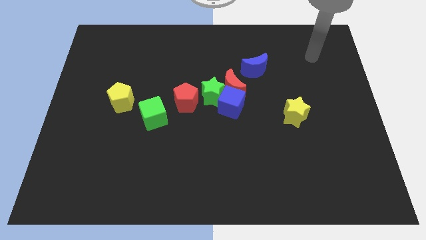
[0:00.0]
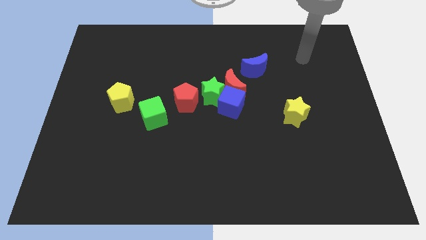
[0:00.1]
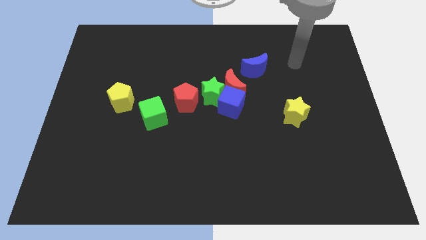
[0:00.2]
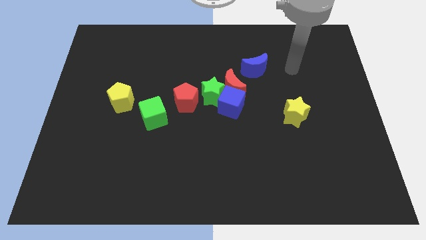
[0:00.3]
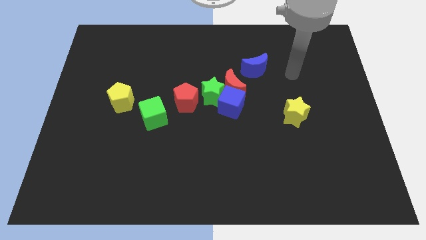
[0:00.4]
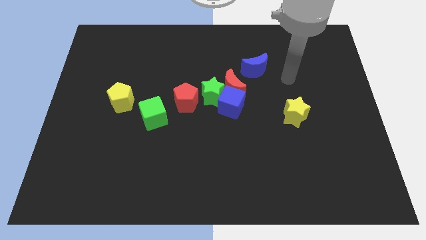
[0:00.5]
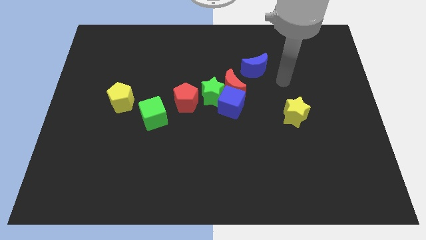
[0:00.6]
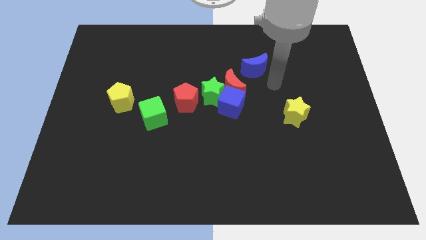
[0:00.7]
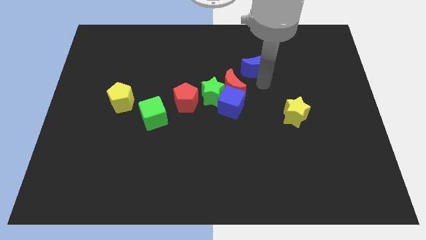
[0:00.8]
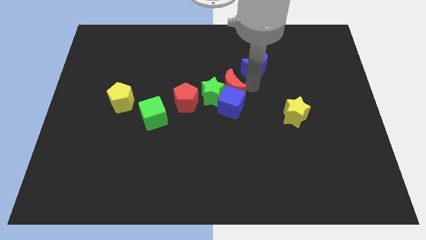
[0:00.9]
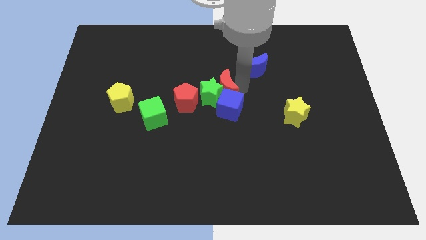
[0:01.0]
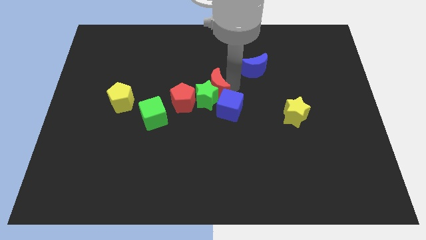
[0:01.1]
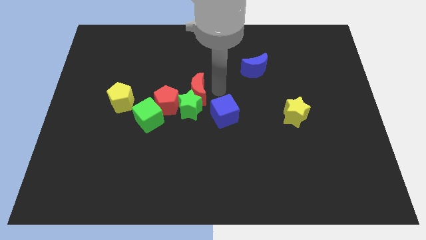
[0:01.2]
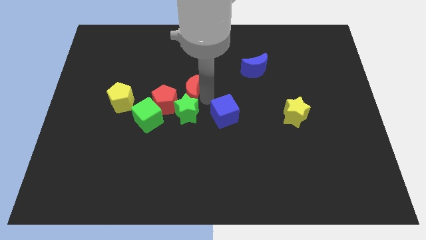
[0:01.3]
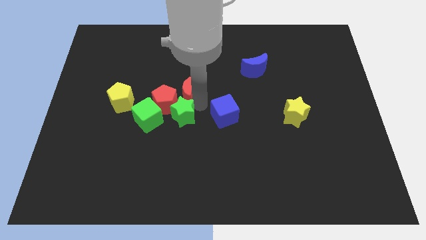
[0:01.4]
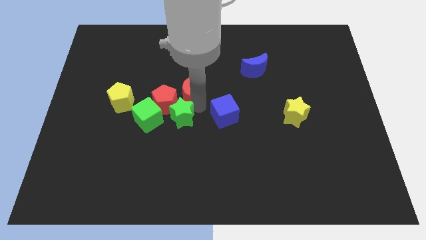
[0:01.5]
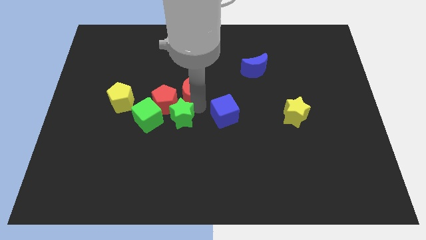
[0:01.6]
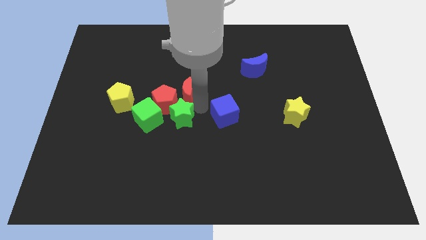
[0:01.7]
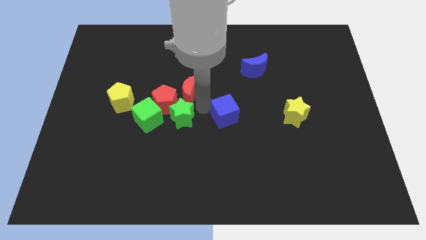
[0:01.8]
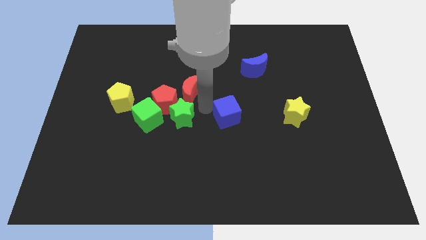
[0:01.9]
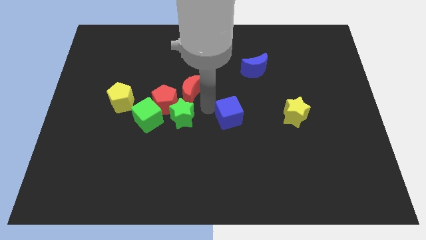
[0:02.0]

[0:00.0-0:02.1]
move the blue cube away from the red moon and green star

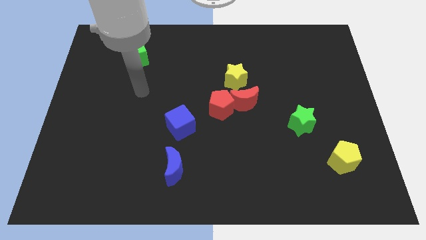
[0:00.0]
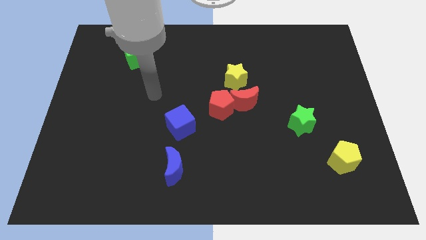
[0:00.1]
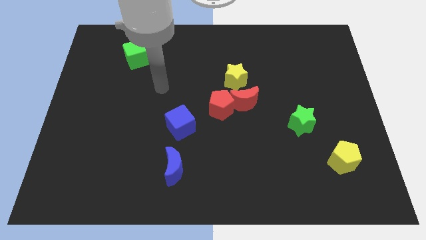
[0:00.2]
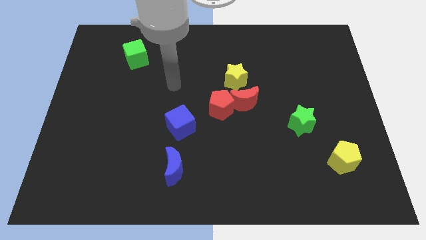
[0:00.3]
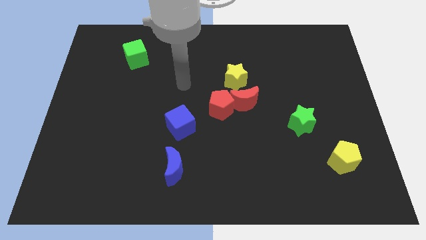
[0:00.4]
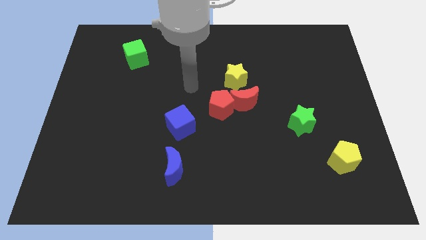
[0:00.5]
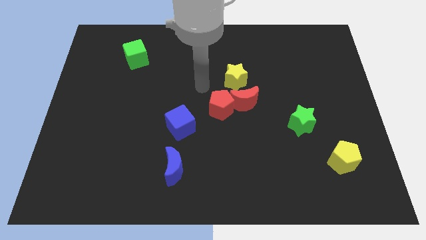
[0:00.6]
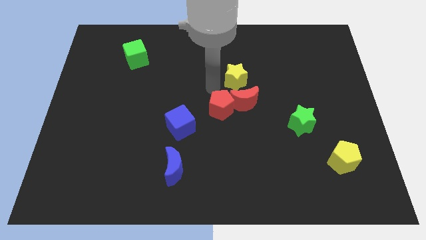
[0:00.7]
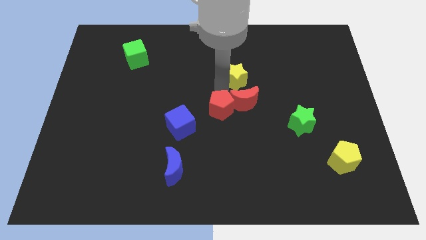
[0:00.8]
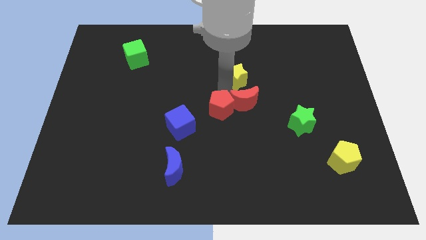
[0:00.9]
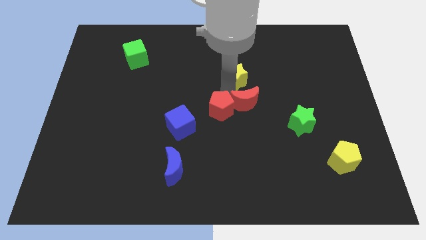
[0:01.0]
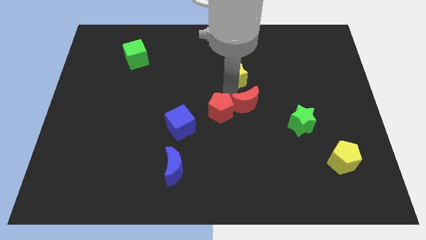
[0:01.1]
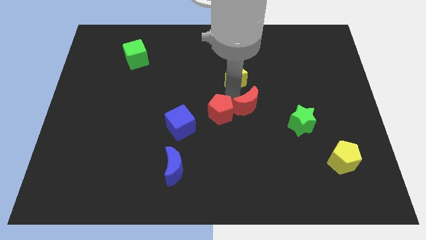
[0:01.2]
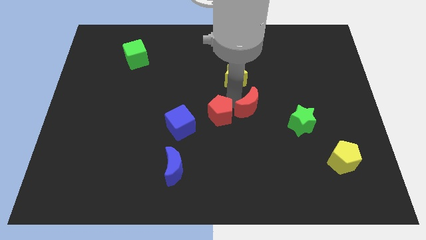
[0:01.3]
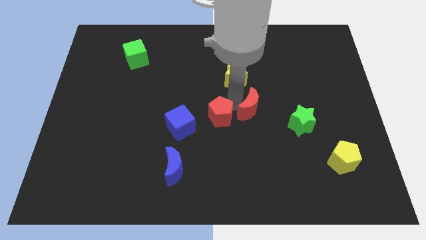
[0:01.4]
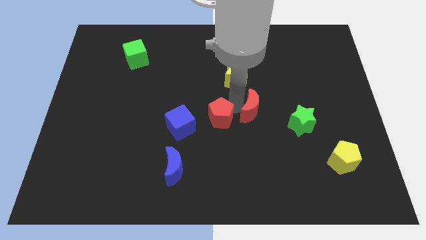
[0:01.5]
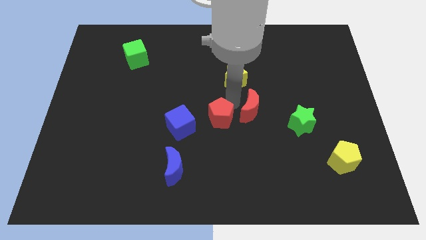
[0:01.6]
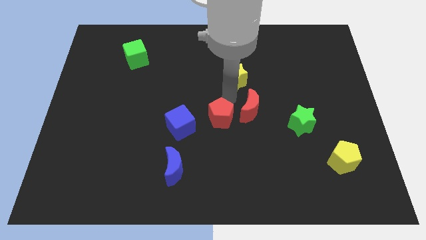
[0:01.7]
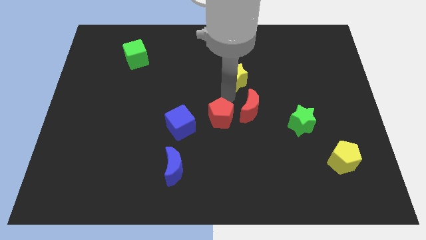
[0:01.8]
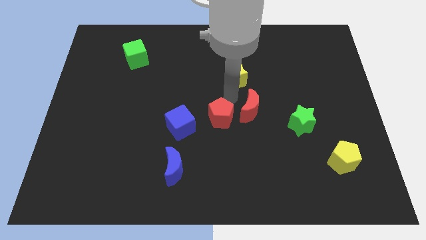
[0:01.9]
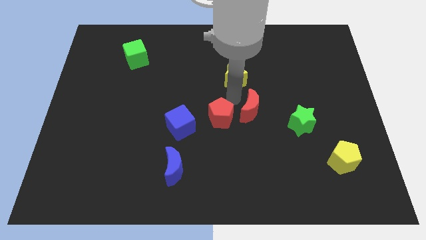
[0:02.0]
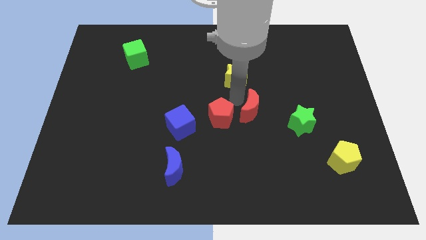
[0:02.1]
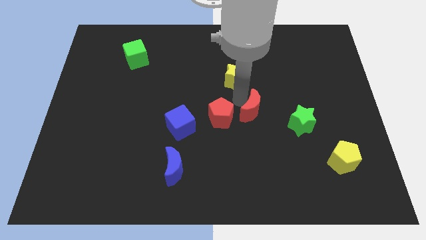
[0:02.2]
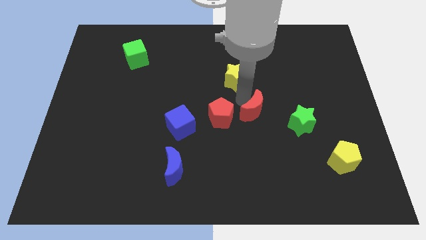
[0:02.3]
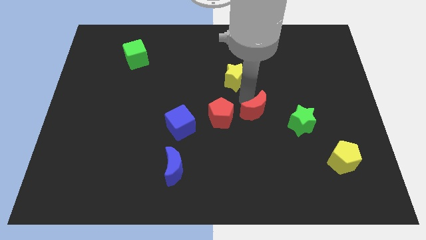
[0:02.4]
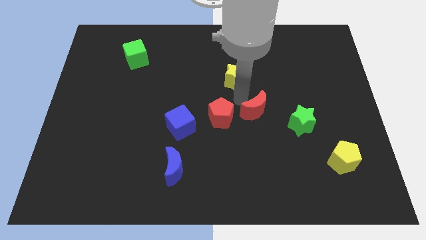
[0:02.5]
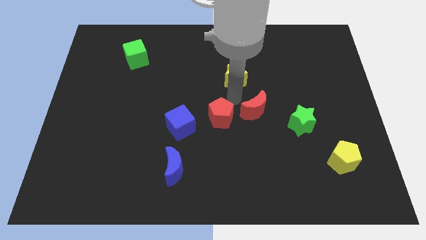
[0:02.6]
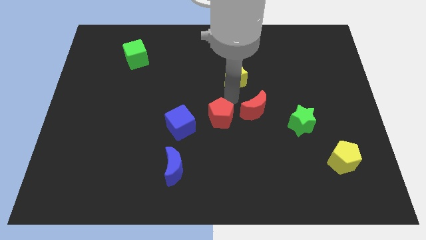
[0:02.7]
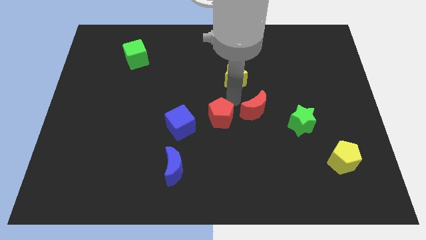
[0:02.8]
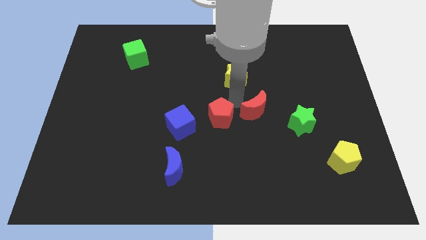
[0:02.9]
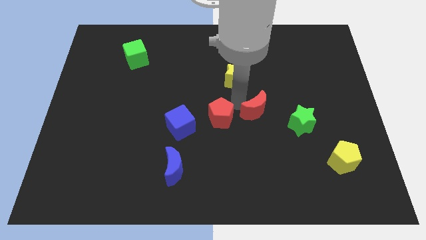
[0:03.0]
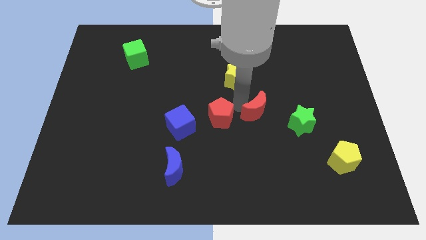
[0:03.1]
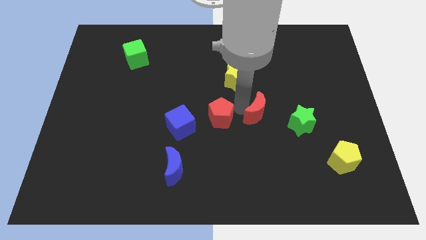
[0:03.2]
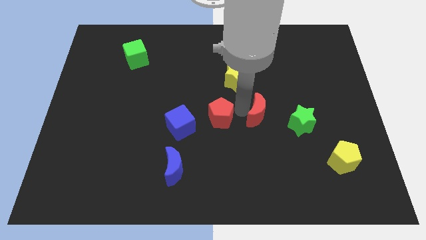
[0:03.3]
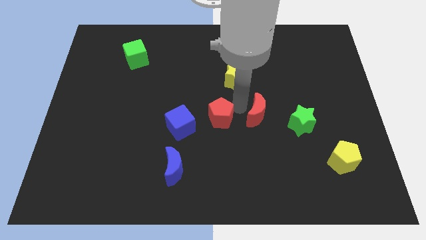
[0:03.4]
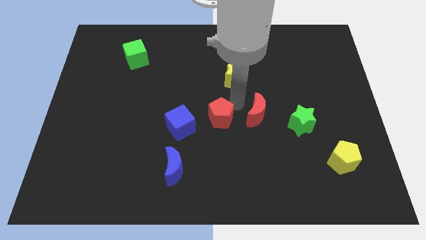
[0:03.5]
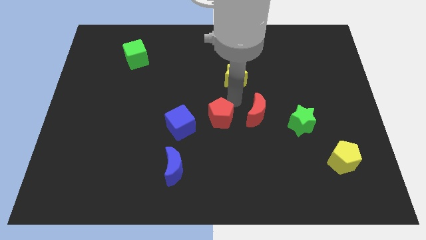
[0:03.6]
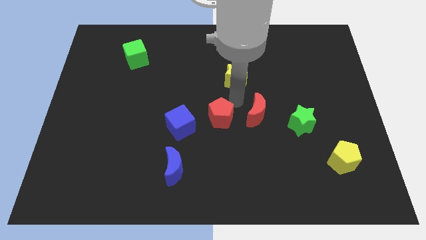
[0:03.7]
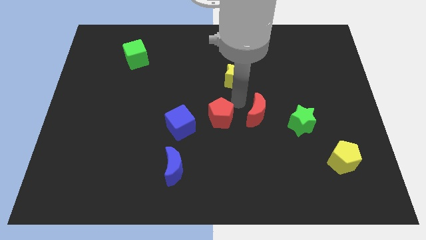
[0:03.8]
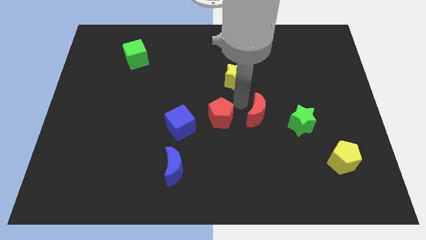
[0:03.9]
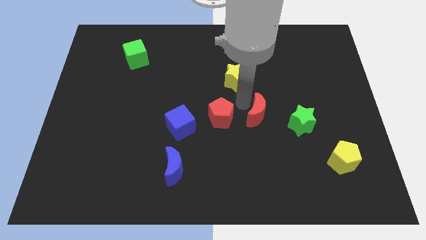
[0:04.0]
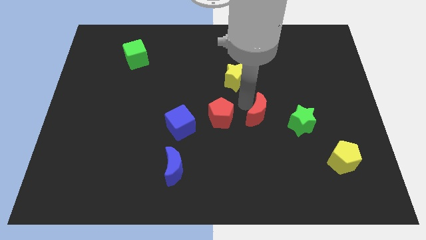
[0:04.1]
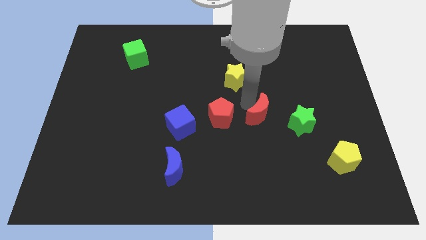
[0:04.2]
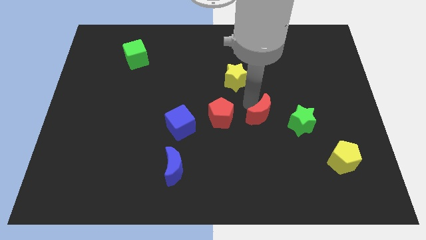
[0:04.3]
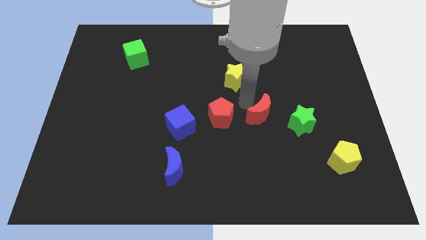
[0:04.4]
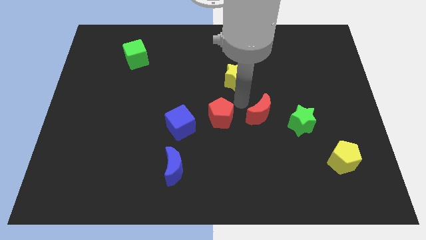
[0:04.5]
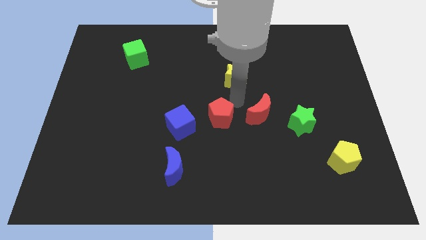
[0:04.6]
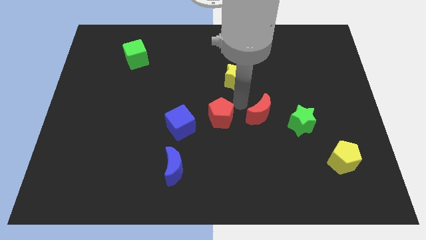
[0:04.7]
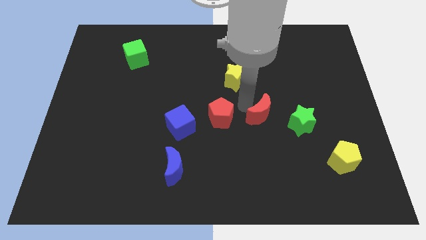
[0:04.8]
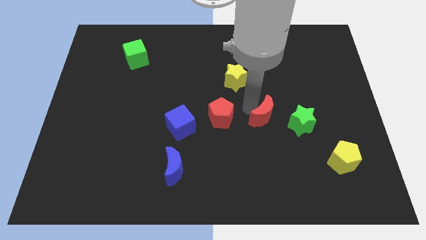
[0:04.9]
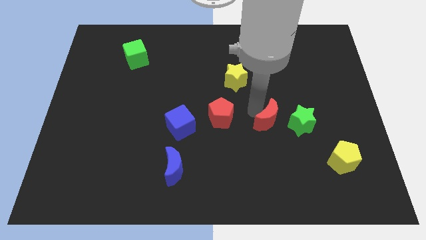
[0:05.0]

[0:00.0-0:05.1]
separate the red moon from the red pentagon and yellow star

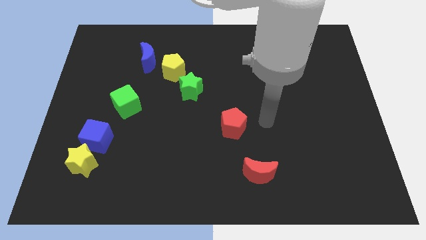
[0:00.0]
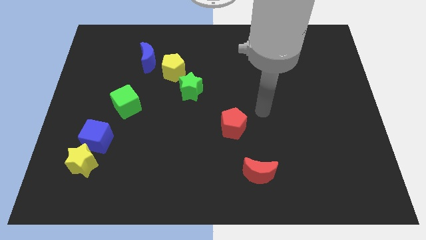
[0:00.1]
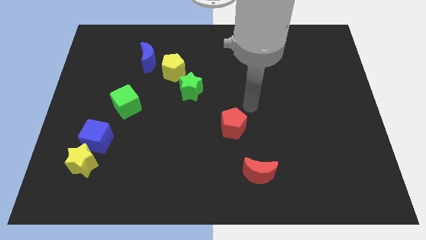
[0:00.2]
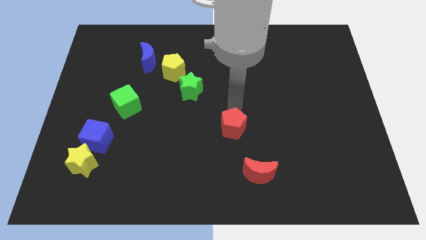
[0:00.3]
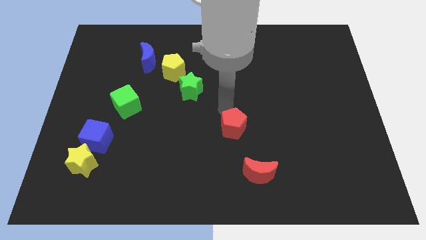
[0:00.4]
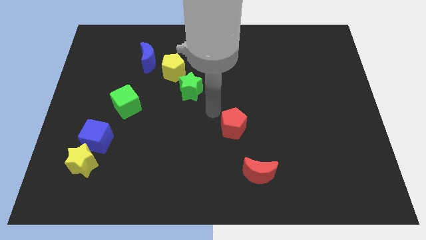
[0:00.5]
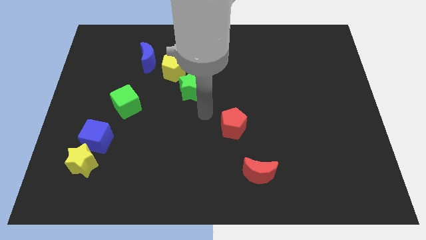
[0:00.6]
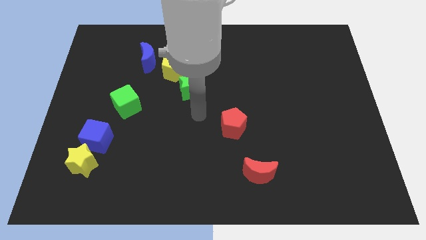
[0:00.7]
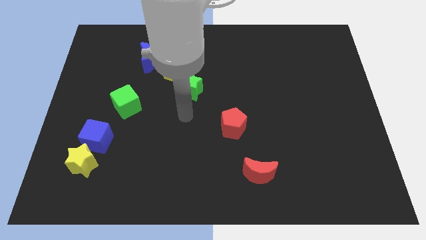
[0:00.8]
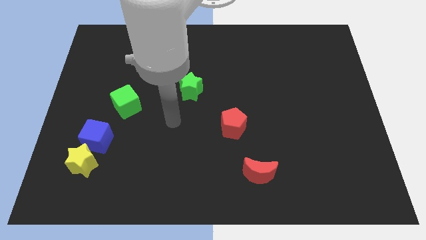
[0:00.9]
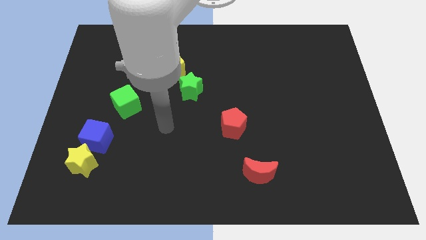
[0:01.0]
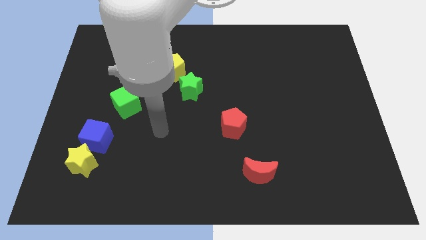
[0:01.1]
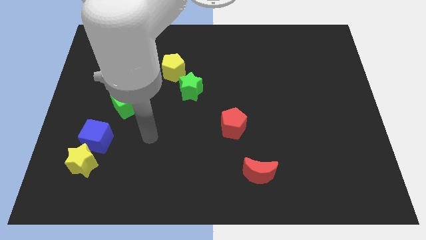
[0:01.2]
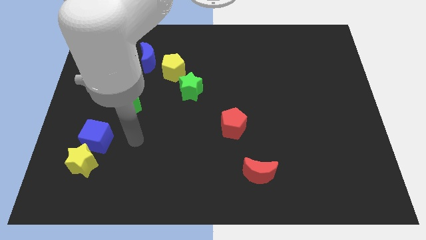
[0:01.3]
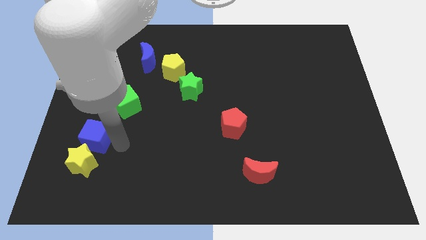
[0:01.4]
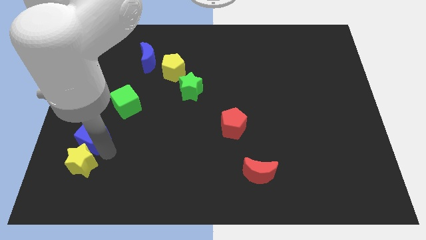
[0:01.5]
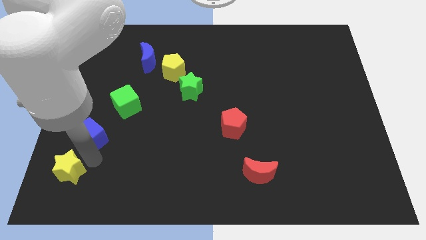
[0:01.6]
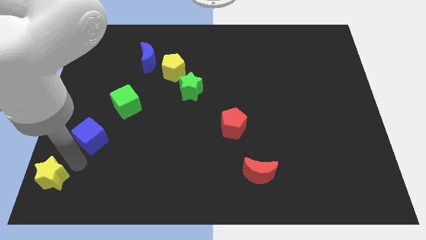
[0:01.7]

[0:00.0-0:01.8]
separate the blue cube from the yellow star

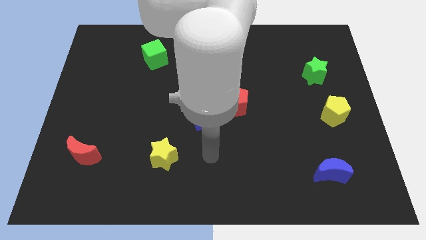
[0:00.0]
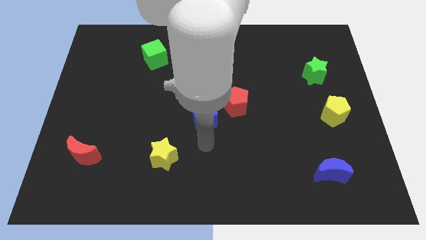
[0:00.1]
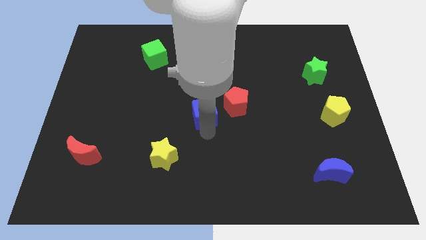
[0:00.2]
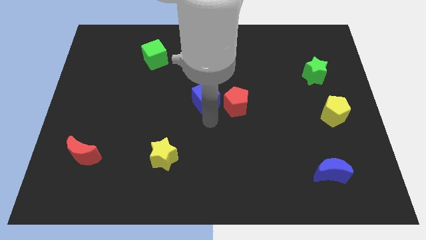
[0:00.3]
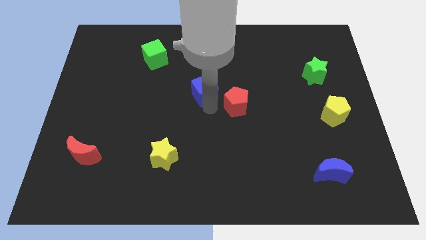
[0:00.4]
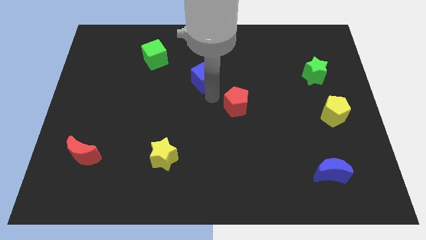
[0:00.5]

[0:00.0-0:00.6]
pull the red pentagon apart from the blue cube
